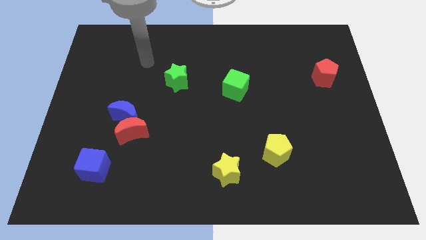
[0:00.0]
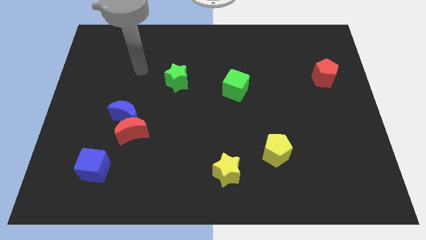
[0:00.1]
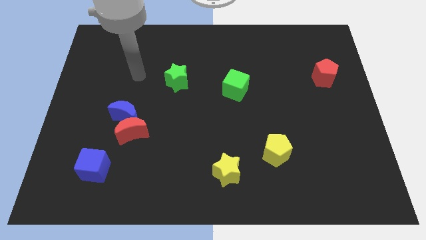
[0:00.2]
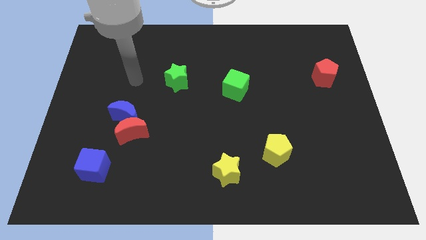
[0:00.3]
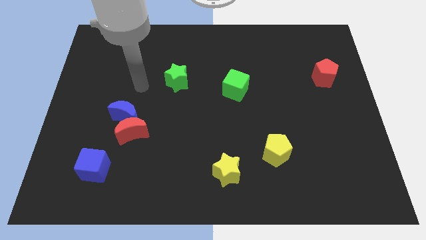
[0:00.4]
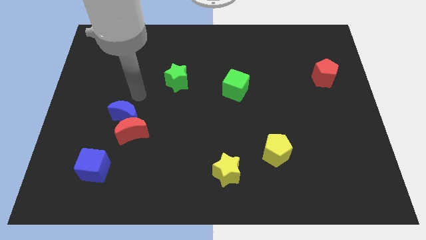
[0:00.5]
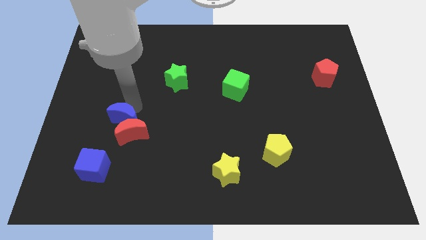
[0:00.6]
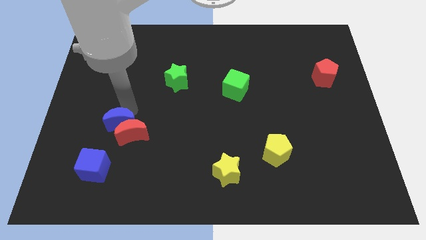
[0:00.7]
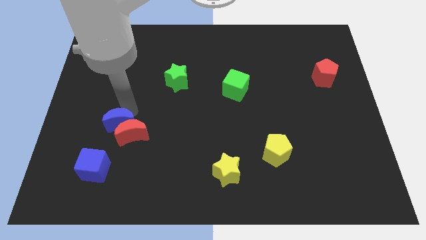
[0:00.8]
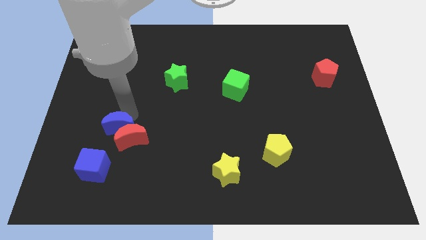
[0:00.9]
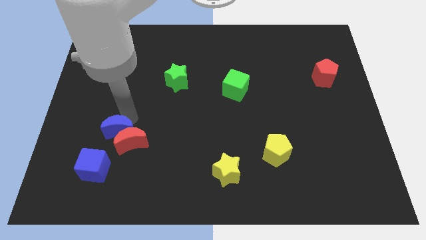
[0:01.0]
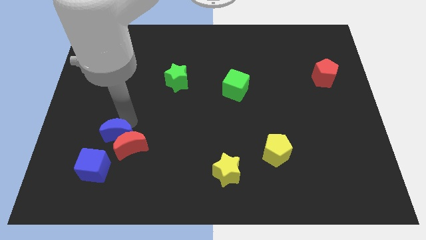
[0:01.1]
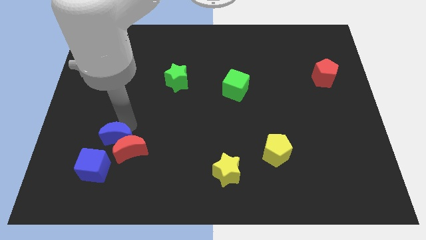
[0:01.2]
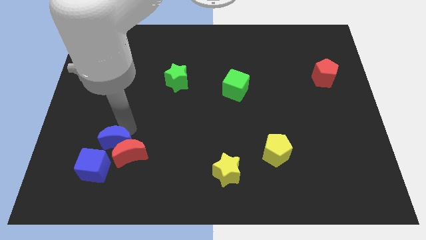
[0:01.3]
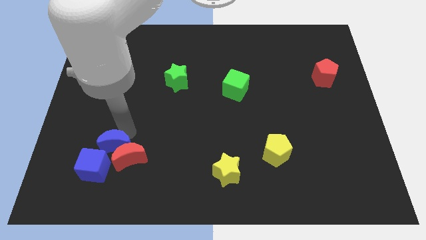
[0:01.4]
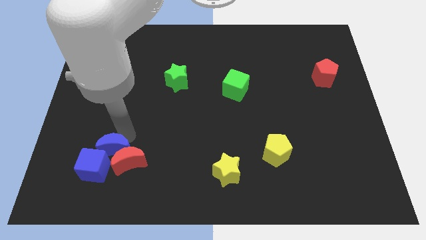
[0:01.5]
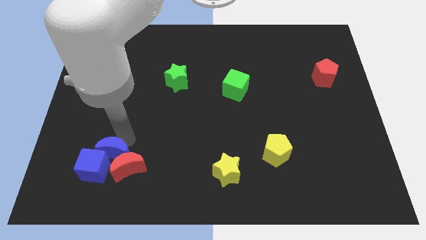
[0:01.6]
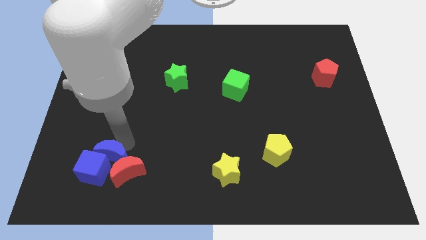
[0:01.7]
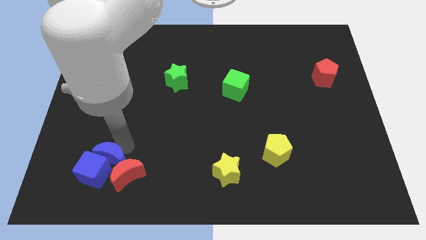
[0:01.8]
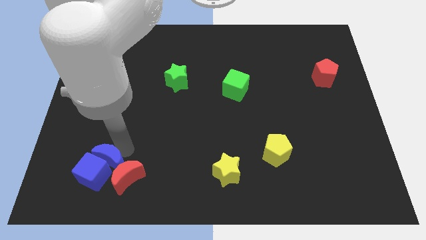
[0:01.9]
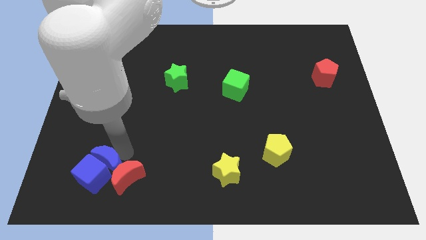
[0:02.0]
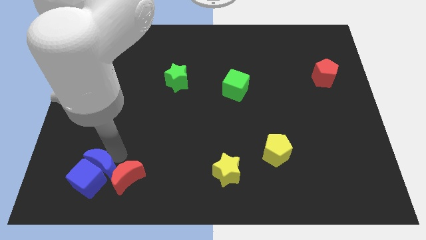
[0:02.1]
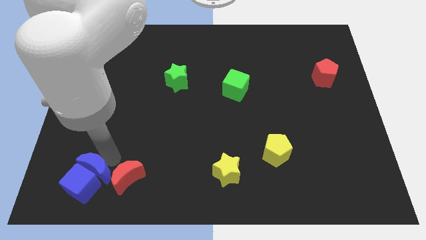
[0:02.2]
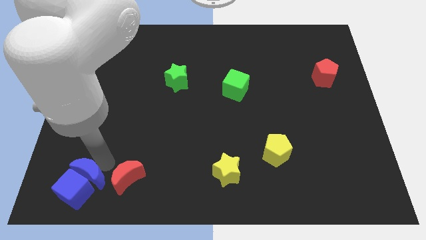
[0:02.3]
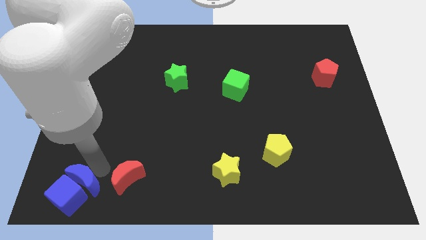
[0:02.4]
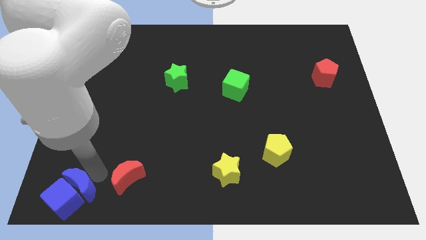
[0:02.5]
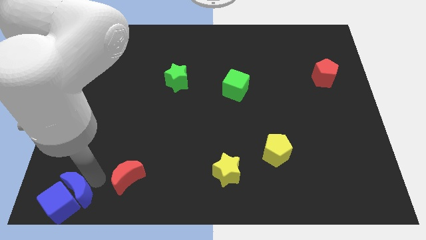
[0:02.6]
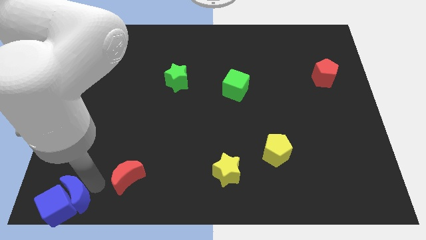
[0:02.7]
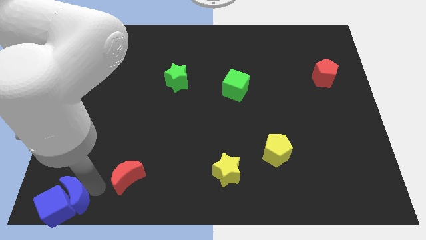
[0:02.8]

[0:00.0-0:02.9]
move the red moon away from the blue moon

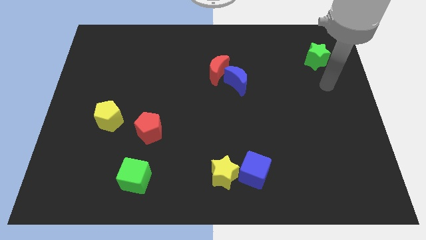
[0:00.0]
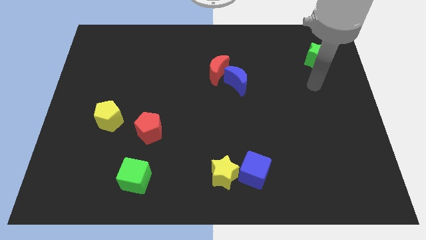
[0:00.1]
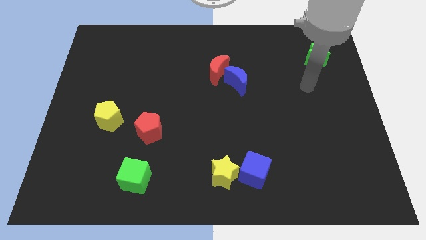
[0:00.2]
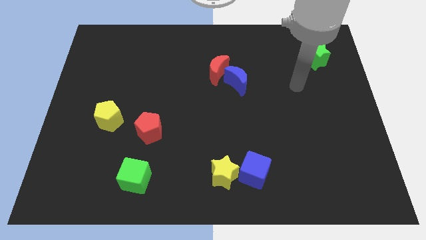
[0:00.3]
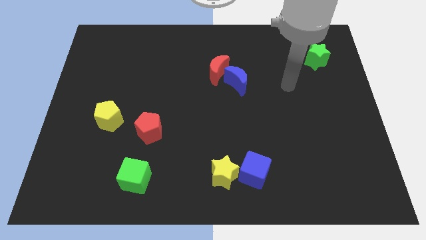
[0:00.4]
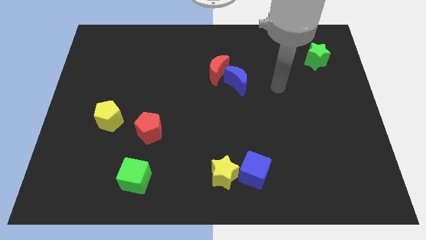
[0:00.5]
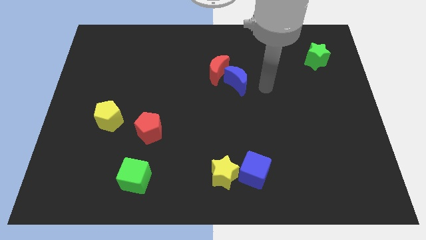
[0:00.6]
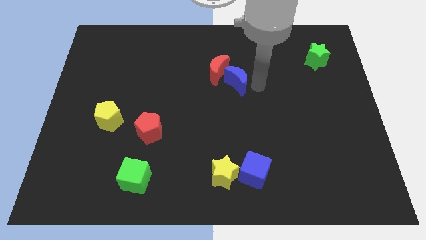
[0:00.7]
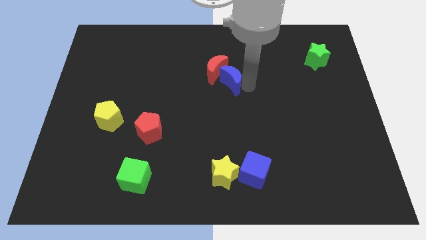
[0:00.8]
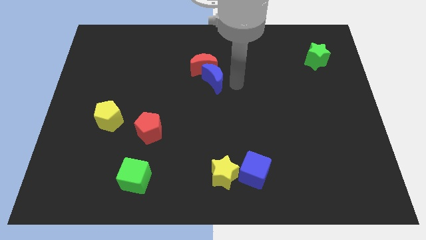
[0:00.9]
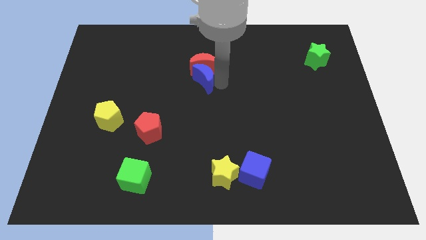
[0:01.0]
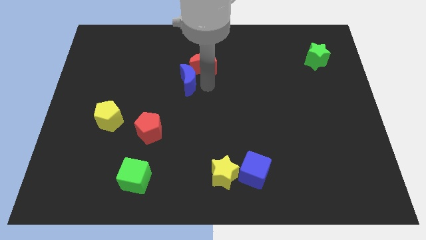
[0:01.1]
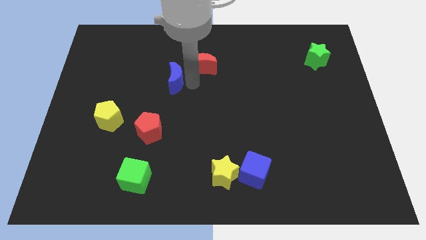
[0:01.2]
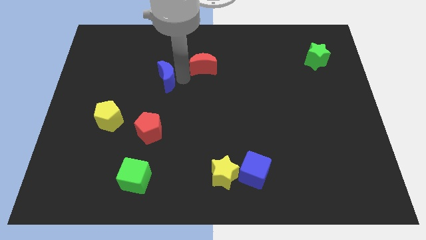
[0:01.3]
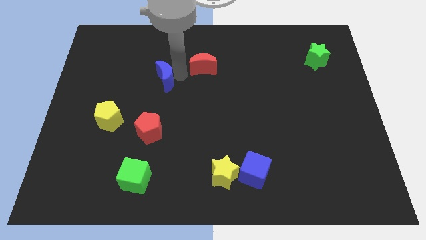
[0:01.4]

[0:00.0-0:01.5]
pull the red moon apart from the blue moon

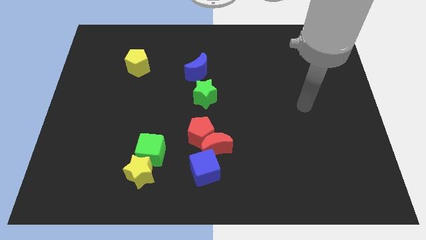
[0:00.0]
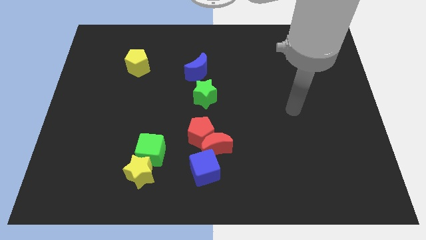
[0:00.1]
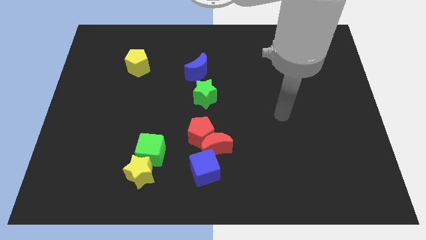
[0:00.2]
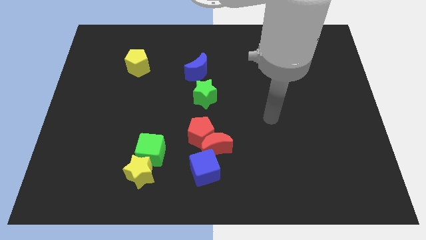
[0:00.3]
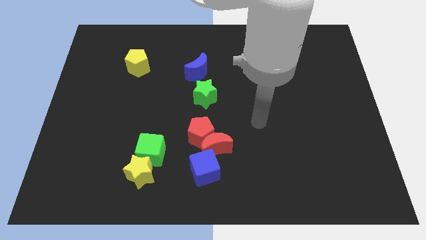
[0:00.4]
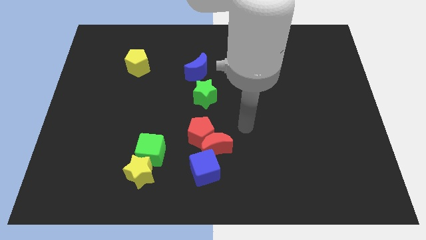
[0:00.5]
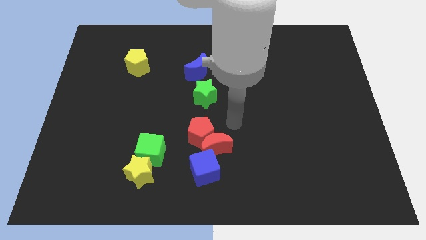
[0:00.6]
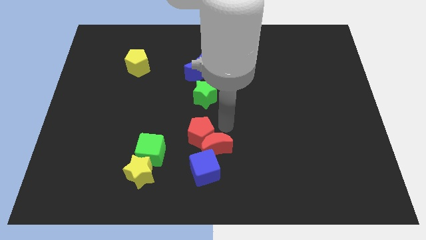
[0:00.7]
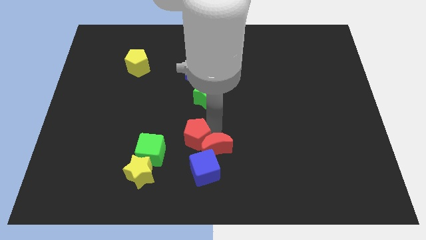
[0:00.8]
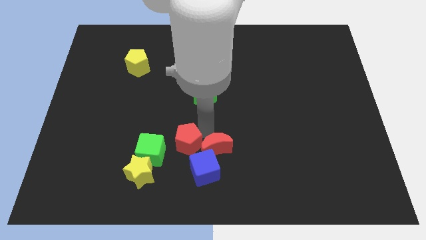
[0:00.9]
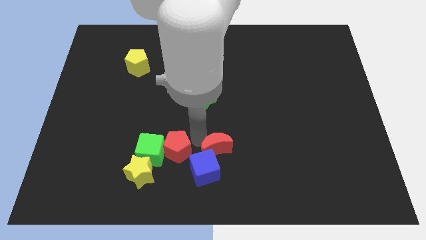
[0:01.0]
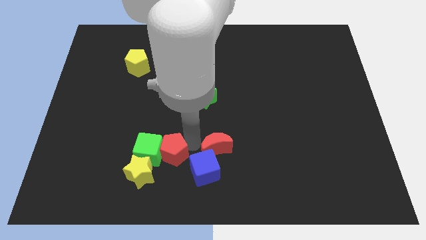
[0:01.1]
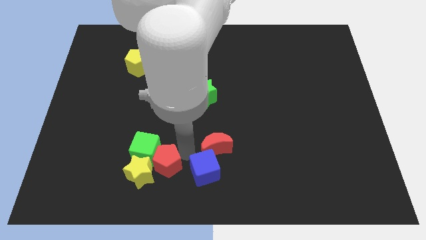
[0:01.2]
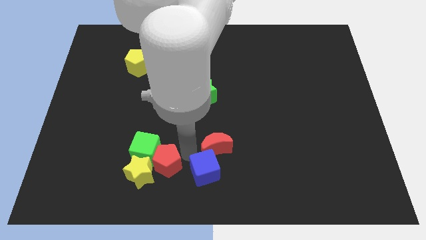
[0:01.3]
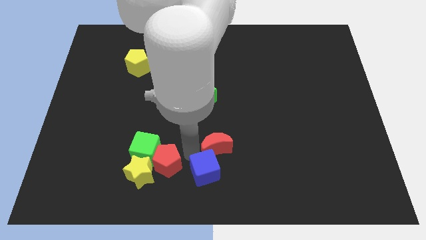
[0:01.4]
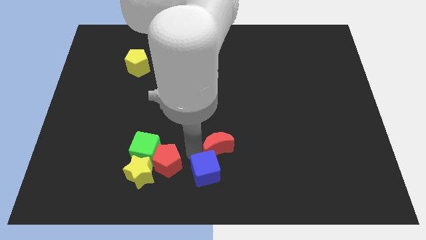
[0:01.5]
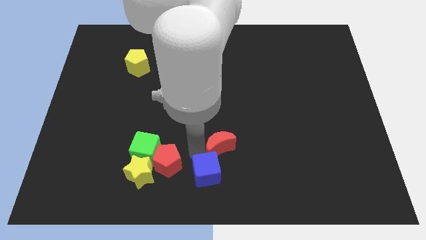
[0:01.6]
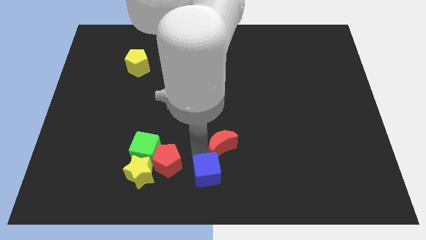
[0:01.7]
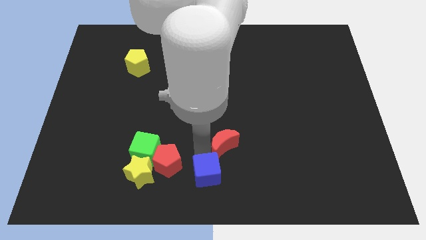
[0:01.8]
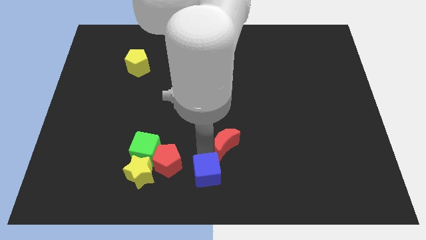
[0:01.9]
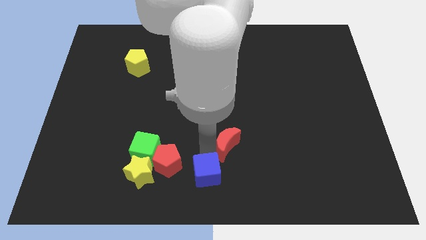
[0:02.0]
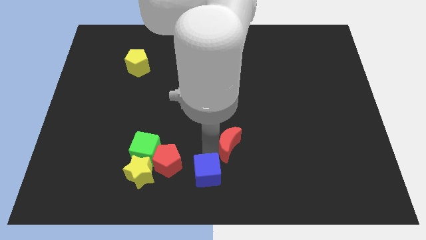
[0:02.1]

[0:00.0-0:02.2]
pull the red moon apart from the red pentagon and blue cube

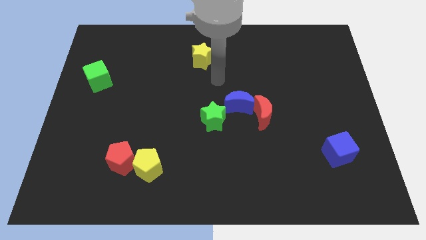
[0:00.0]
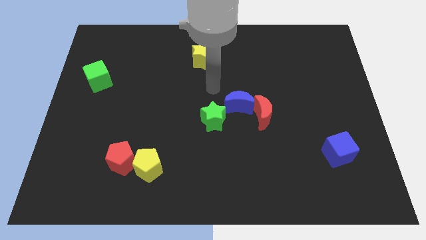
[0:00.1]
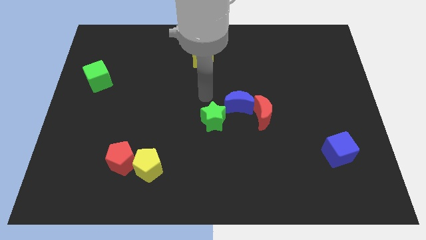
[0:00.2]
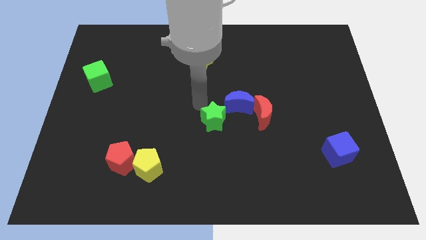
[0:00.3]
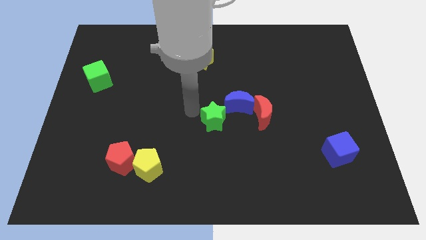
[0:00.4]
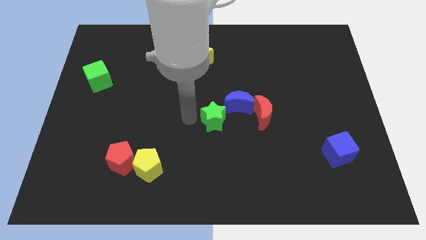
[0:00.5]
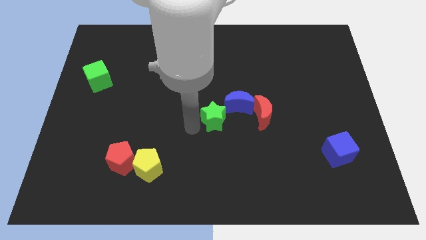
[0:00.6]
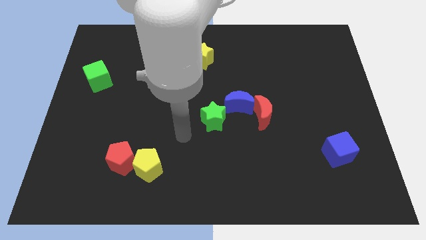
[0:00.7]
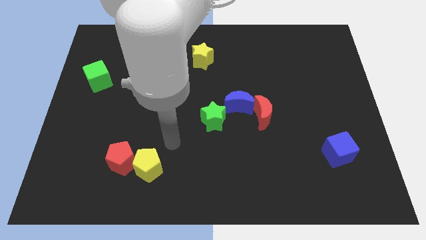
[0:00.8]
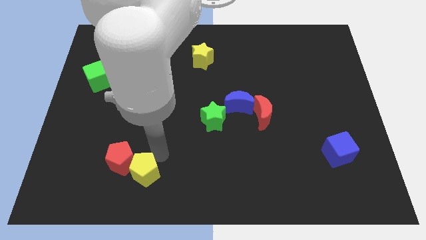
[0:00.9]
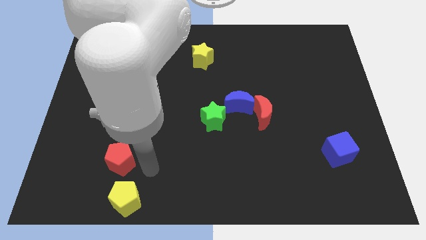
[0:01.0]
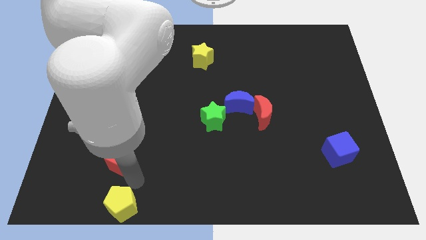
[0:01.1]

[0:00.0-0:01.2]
pull the red pentagon apart from the yellow pentagon

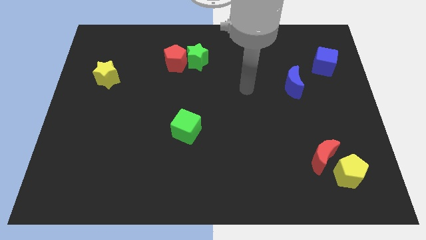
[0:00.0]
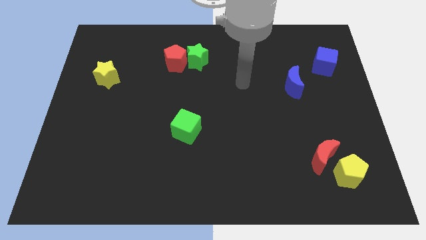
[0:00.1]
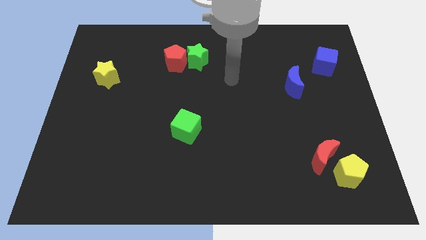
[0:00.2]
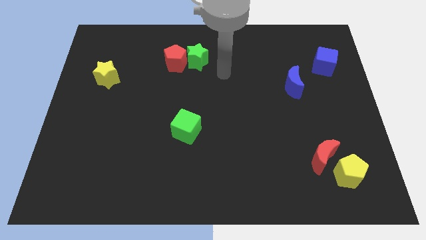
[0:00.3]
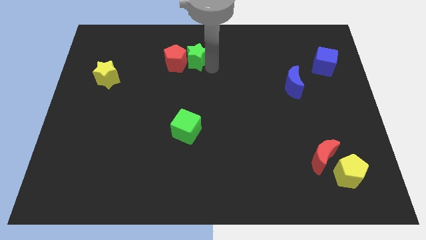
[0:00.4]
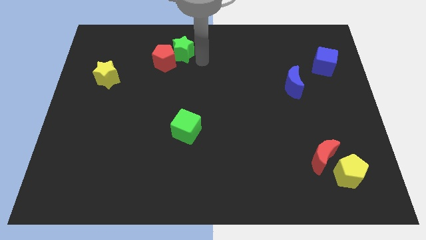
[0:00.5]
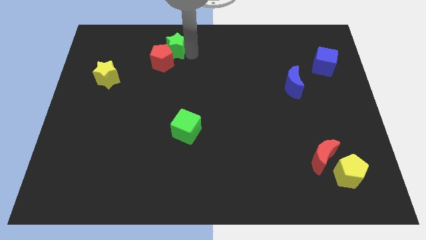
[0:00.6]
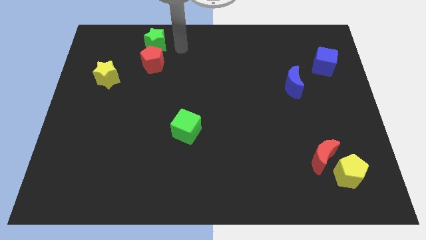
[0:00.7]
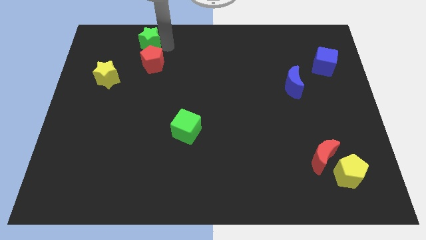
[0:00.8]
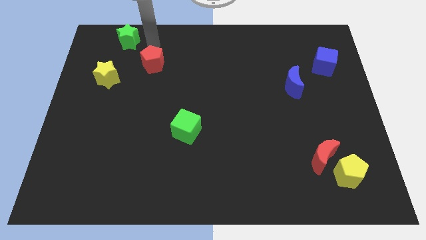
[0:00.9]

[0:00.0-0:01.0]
separate the red pentagon from the green star

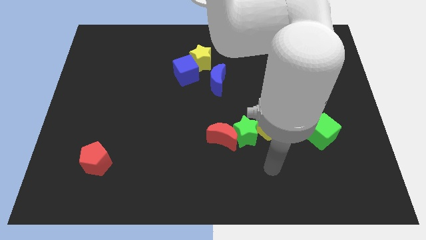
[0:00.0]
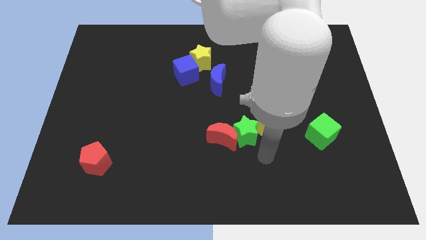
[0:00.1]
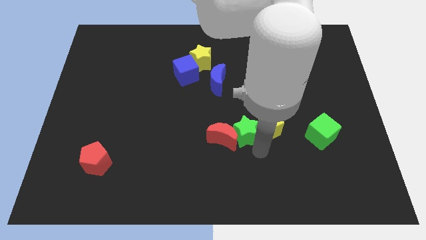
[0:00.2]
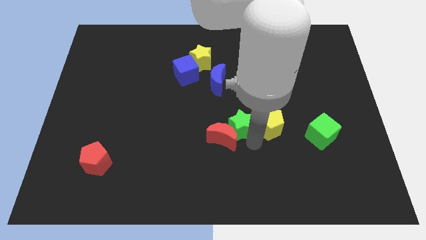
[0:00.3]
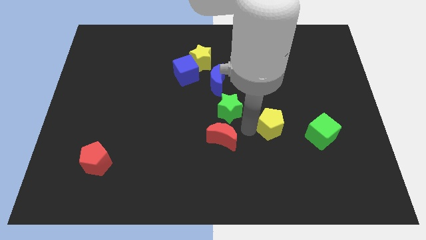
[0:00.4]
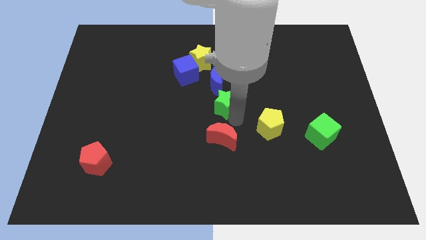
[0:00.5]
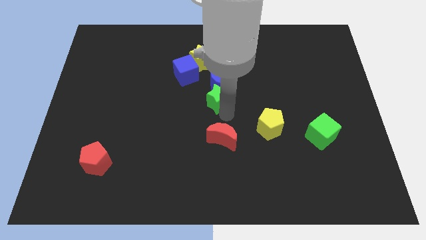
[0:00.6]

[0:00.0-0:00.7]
separate the red moon from the green star

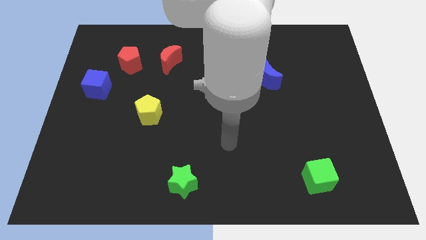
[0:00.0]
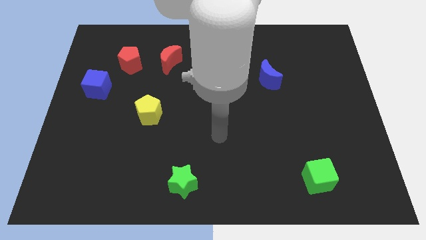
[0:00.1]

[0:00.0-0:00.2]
pull the red moon apart from the red pentagon
